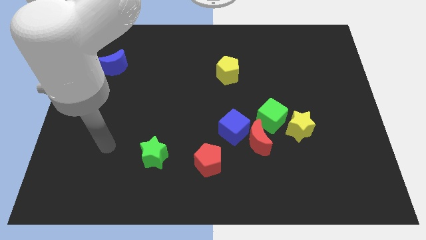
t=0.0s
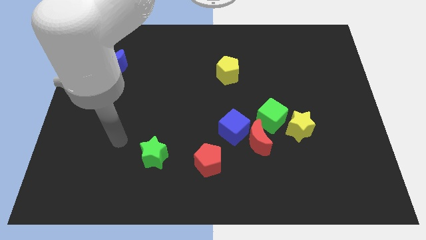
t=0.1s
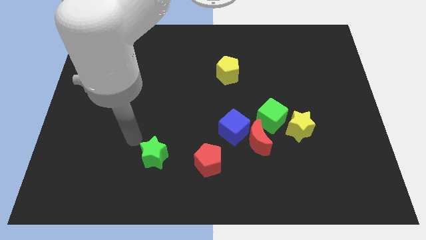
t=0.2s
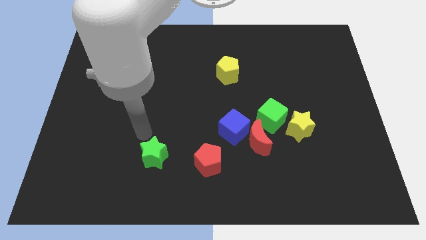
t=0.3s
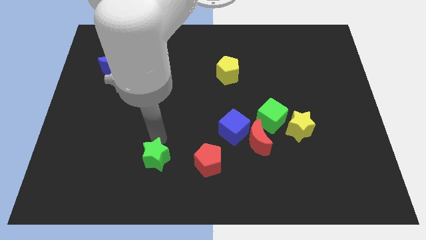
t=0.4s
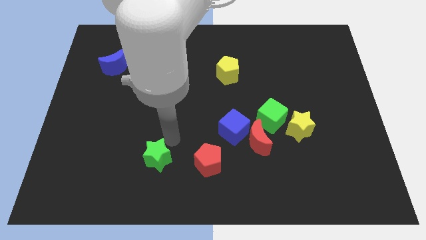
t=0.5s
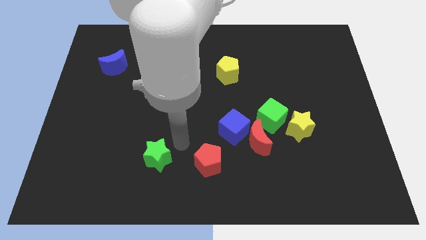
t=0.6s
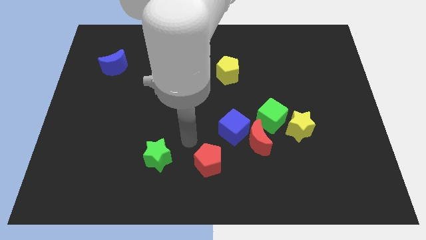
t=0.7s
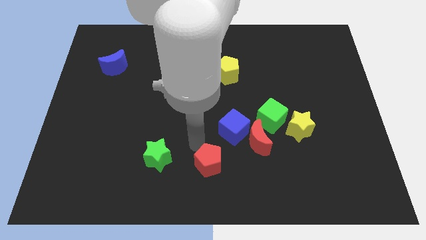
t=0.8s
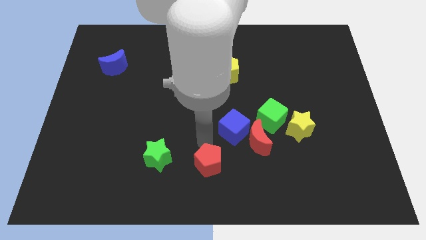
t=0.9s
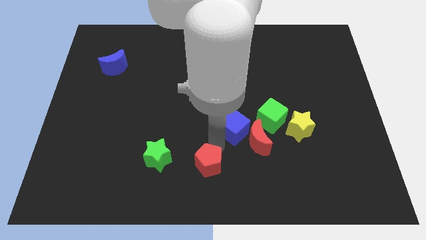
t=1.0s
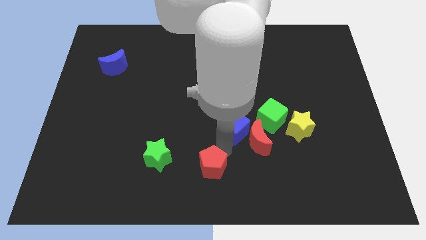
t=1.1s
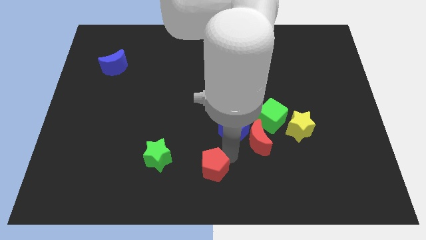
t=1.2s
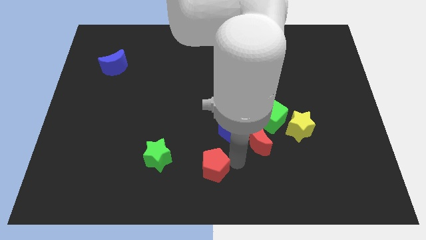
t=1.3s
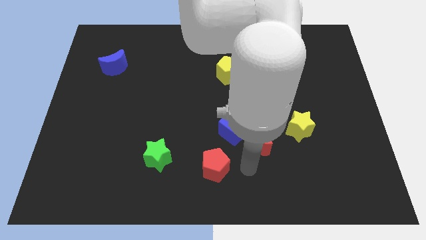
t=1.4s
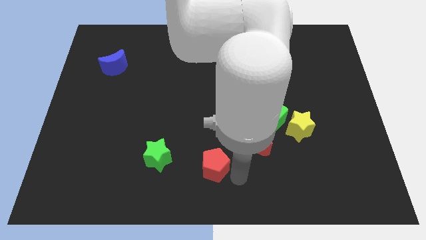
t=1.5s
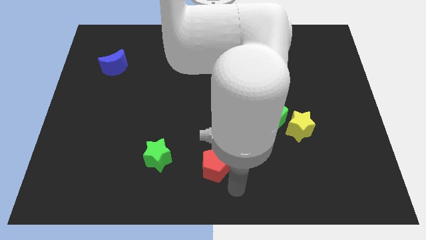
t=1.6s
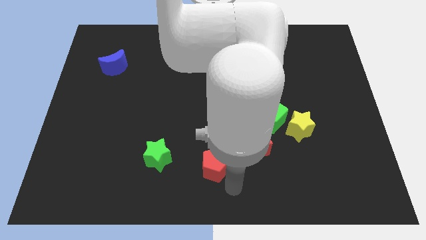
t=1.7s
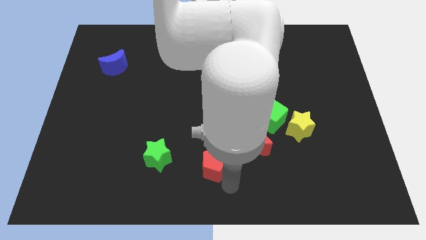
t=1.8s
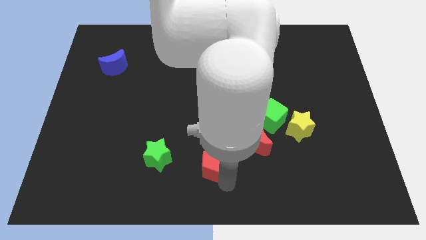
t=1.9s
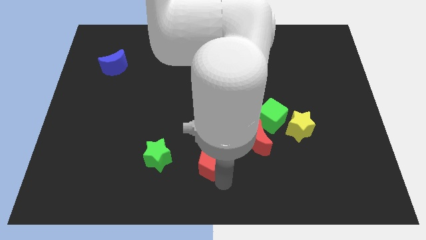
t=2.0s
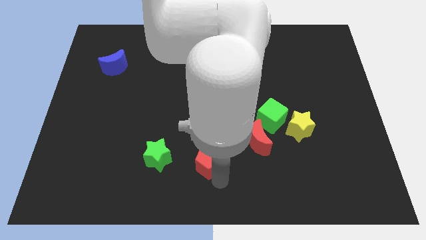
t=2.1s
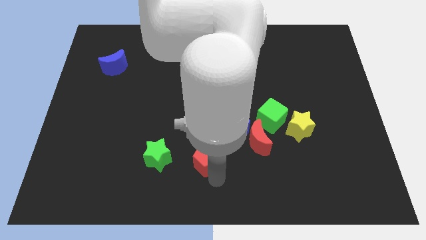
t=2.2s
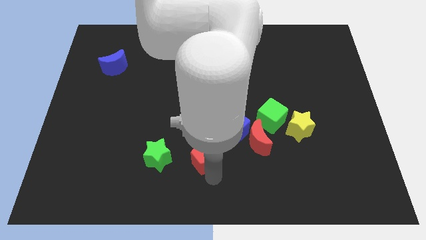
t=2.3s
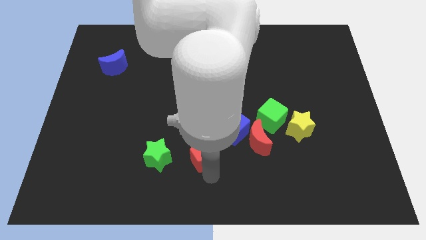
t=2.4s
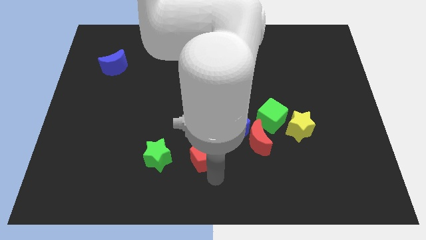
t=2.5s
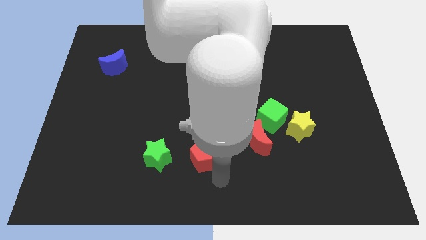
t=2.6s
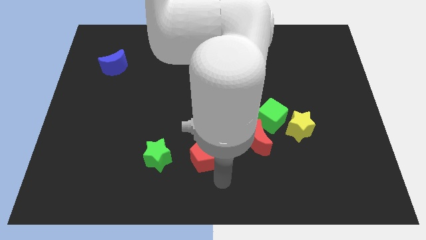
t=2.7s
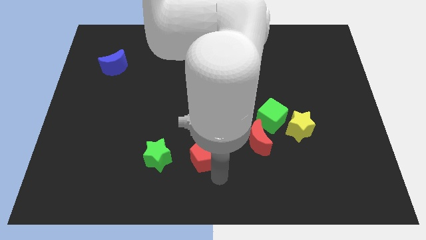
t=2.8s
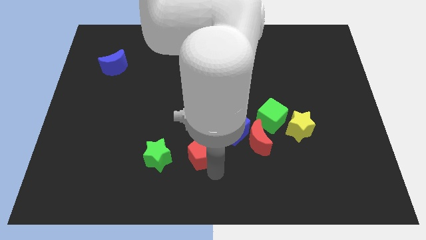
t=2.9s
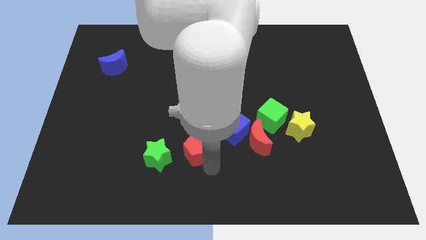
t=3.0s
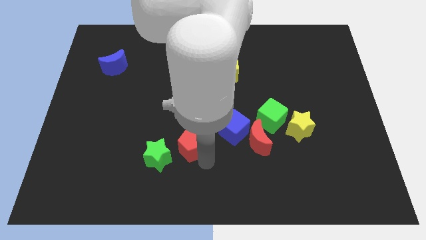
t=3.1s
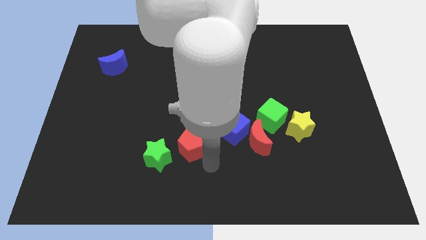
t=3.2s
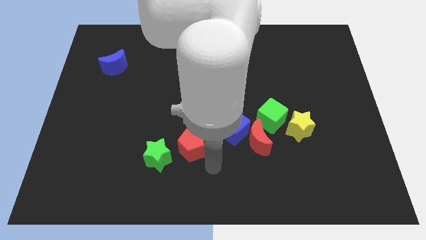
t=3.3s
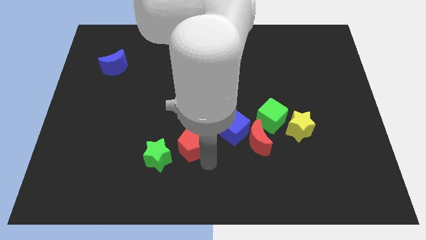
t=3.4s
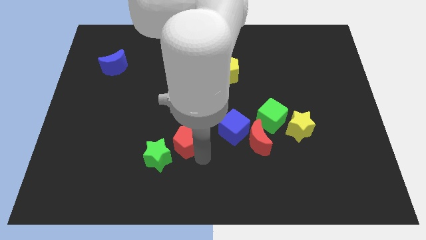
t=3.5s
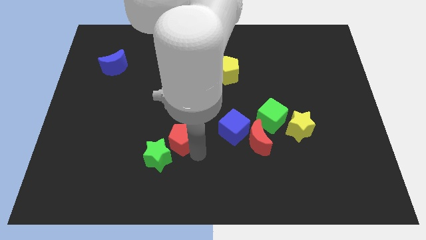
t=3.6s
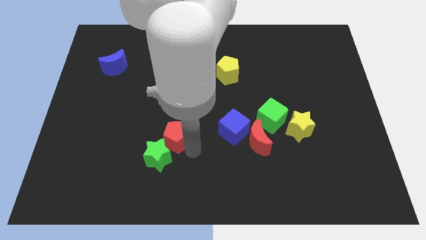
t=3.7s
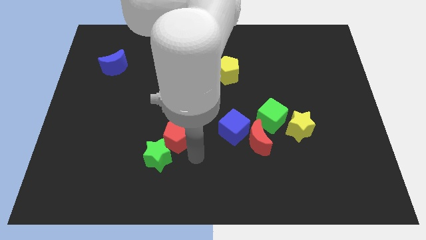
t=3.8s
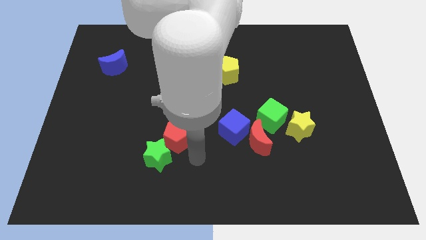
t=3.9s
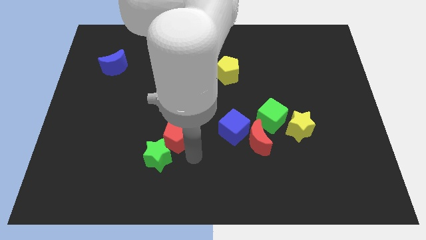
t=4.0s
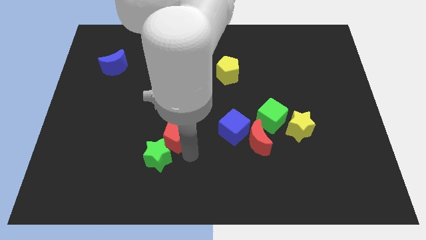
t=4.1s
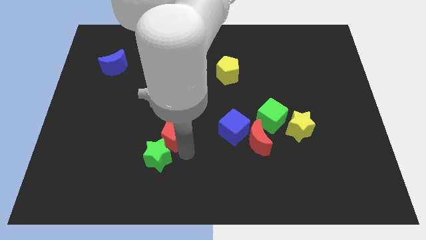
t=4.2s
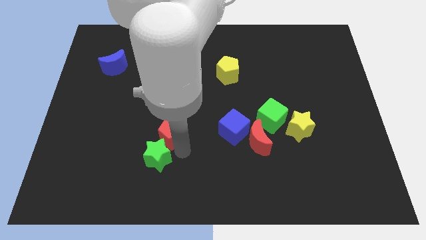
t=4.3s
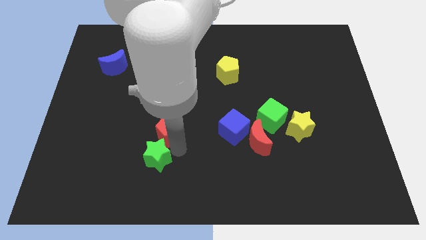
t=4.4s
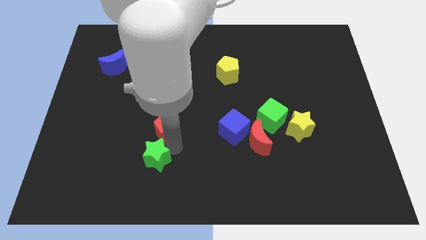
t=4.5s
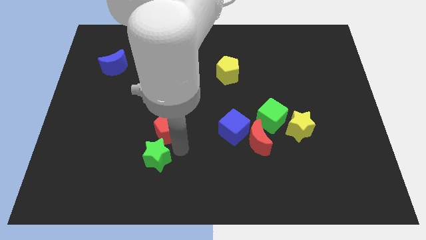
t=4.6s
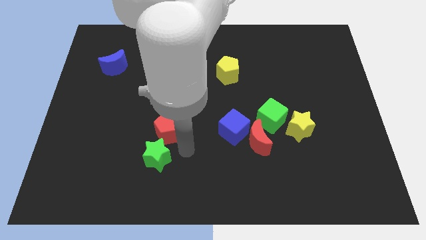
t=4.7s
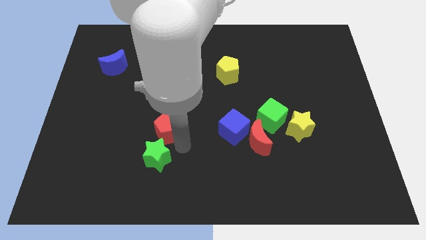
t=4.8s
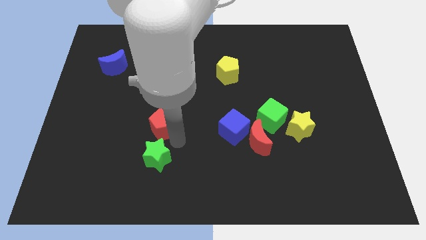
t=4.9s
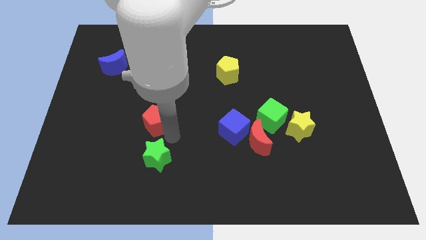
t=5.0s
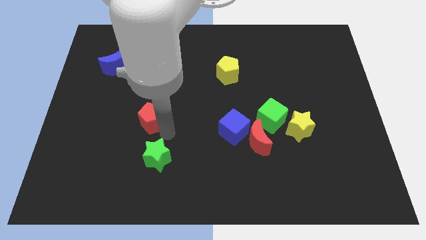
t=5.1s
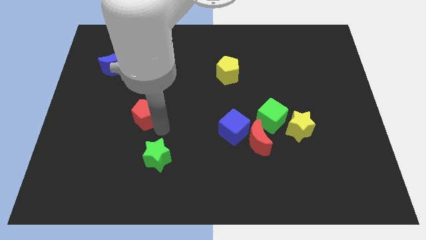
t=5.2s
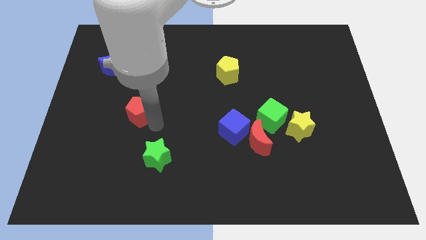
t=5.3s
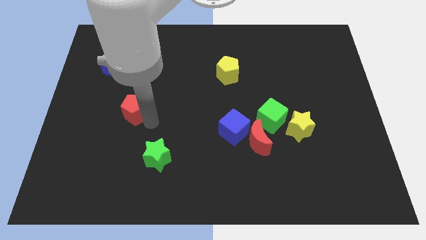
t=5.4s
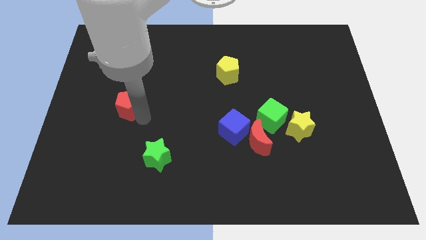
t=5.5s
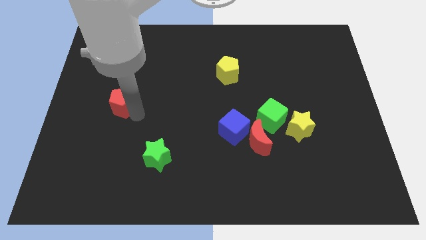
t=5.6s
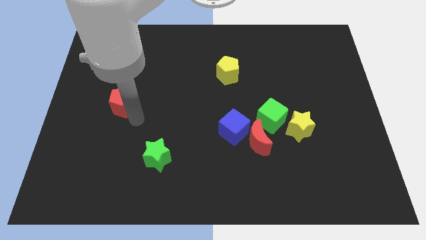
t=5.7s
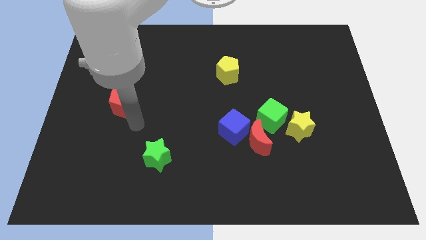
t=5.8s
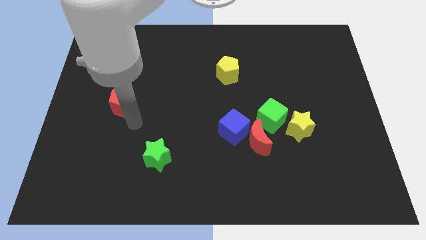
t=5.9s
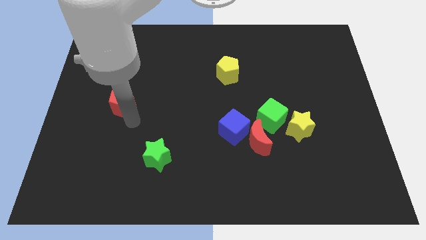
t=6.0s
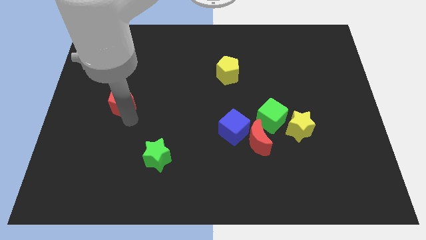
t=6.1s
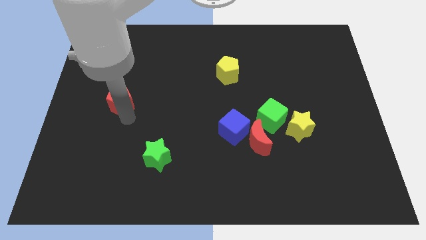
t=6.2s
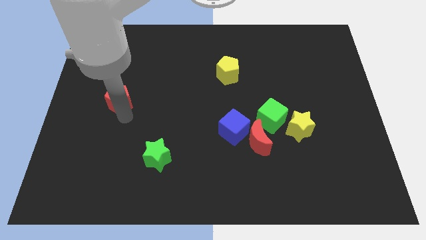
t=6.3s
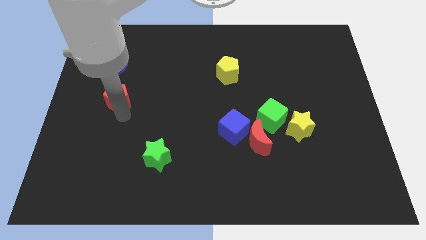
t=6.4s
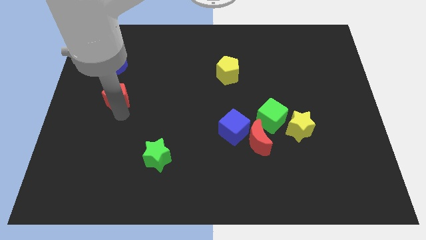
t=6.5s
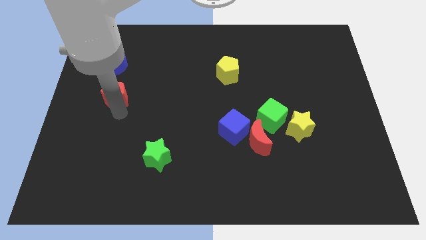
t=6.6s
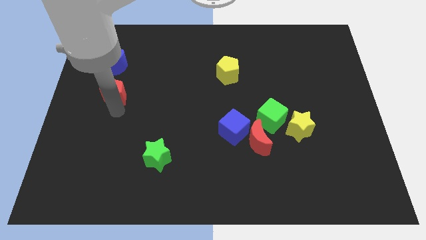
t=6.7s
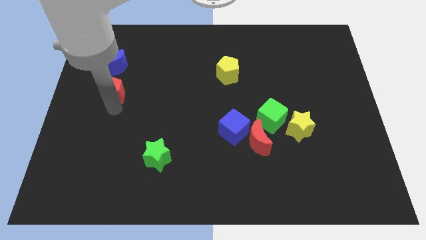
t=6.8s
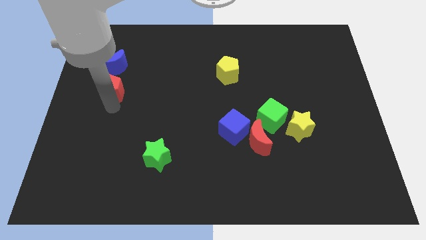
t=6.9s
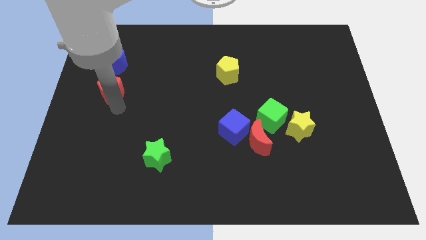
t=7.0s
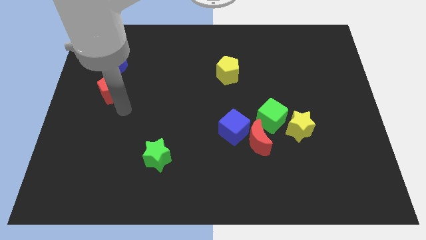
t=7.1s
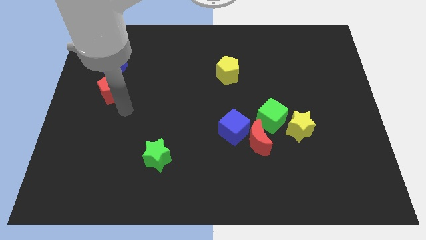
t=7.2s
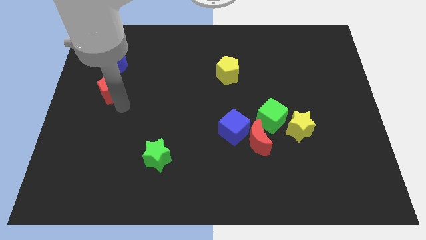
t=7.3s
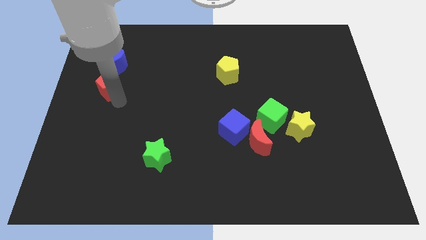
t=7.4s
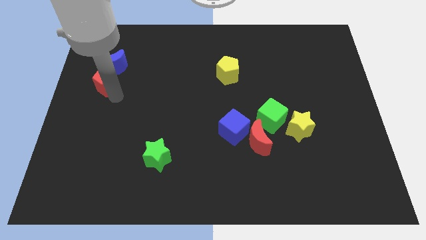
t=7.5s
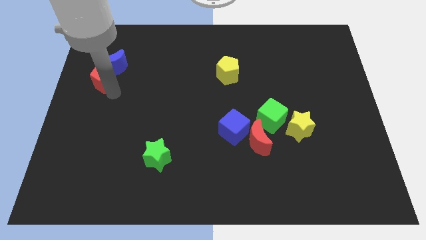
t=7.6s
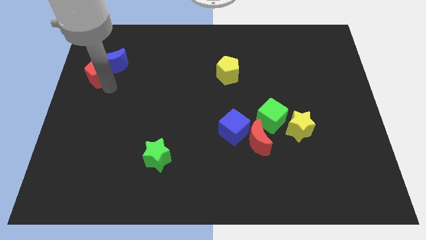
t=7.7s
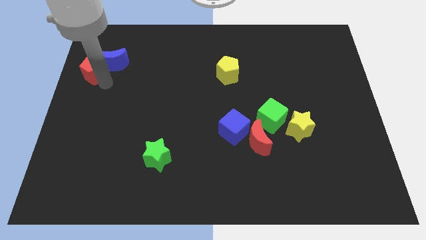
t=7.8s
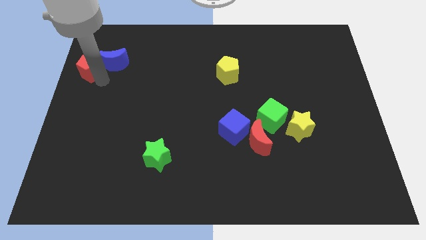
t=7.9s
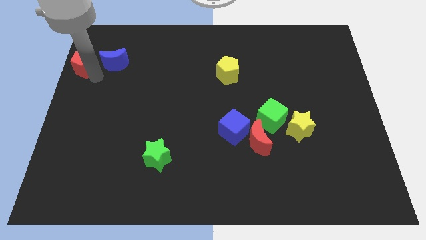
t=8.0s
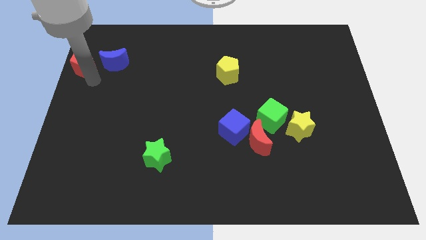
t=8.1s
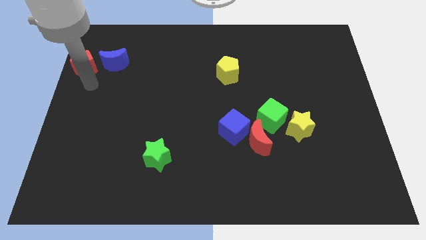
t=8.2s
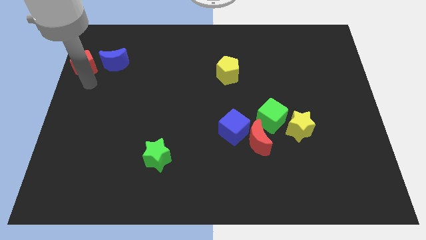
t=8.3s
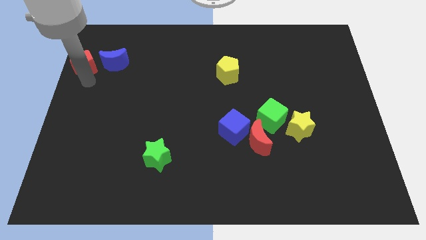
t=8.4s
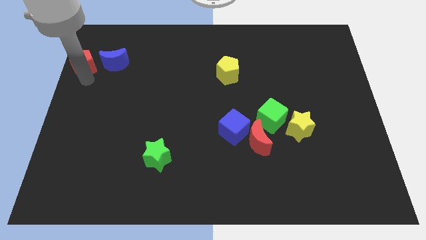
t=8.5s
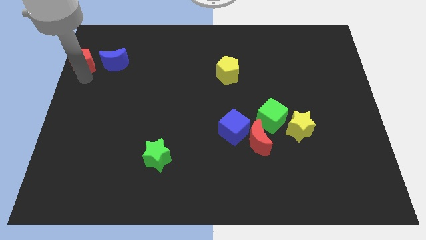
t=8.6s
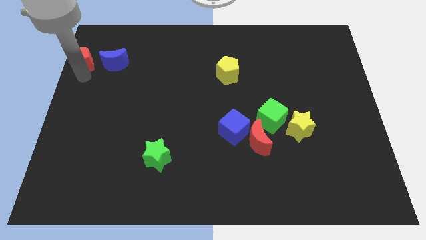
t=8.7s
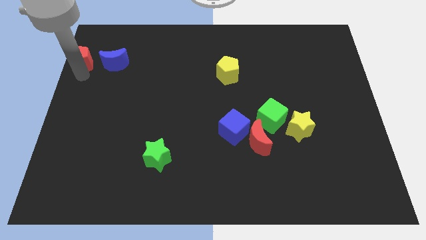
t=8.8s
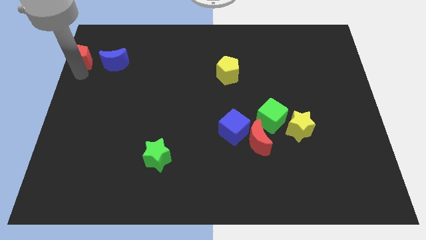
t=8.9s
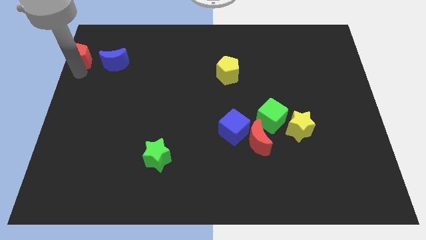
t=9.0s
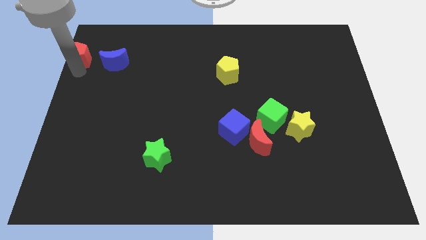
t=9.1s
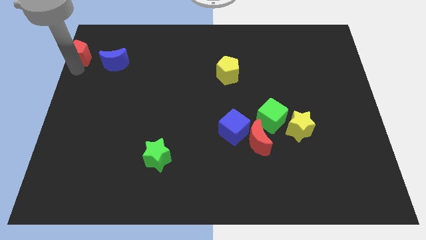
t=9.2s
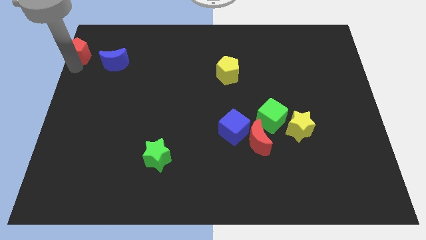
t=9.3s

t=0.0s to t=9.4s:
move the red pentagon to the top left of the board
